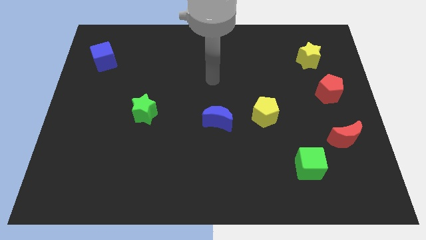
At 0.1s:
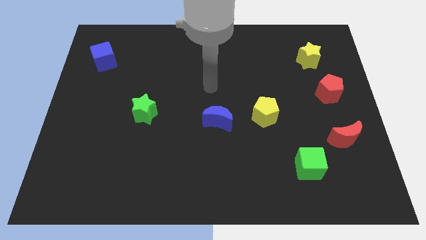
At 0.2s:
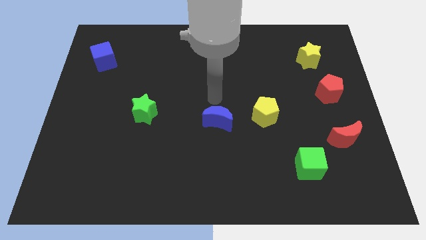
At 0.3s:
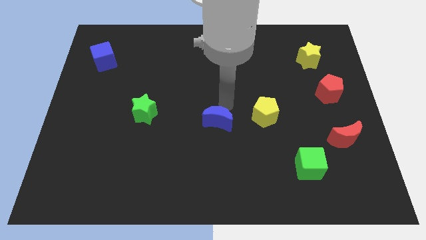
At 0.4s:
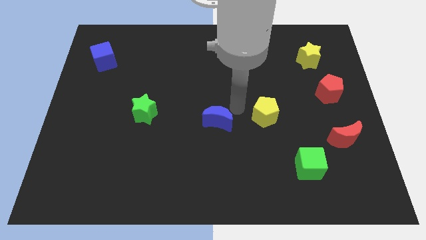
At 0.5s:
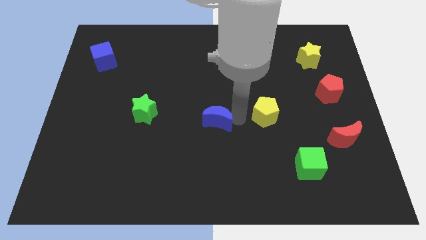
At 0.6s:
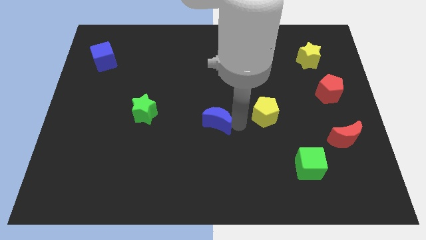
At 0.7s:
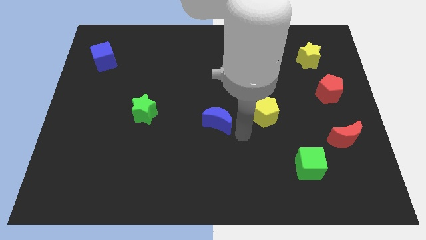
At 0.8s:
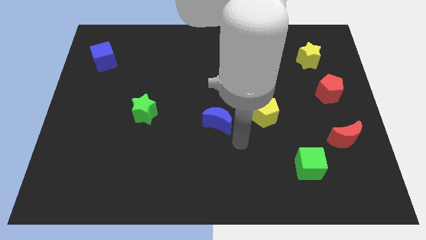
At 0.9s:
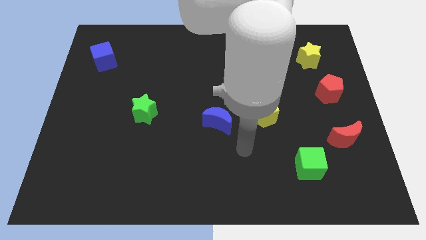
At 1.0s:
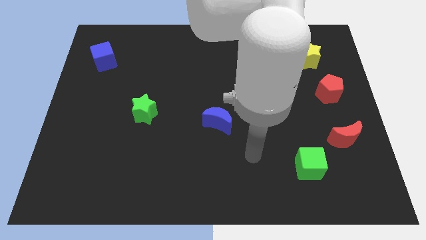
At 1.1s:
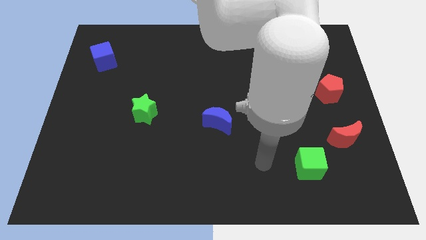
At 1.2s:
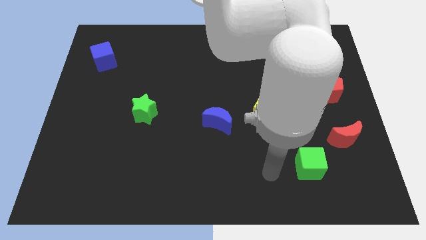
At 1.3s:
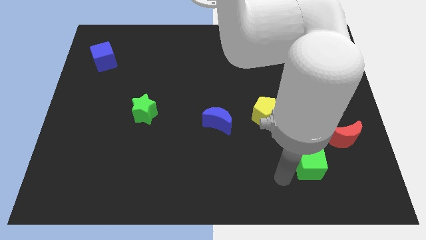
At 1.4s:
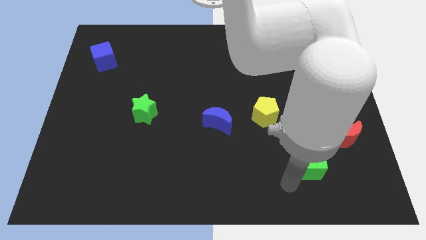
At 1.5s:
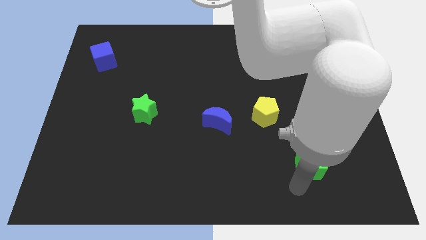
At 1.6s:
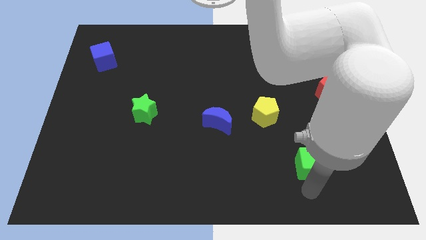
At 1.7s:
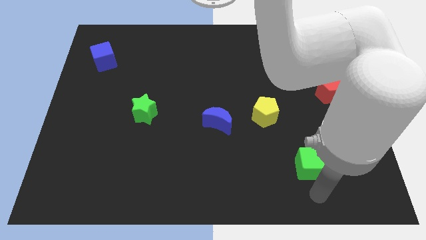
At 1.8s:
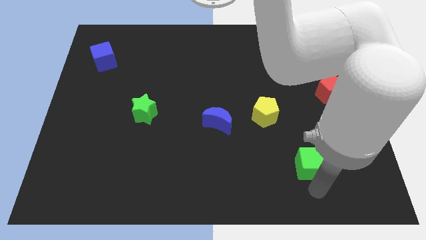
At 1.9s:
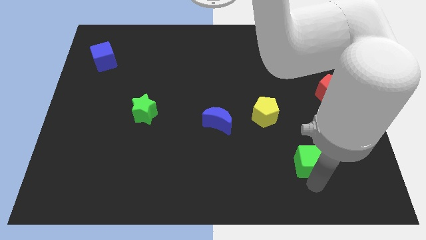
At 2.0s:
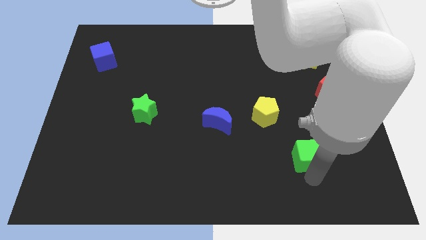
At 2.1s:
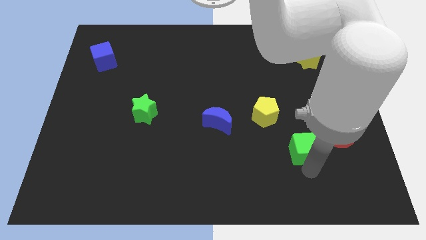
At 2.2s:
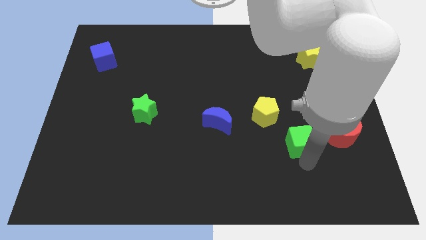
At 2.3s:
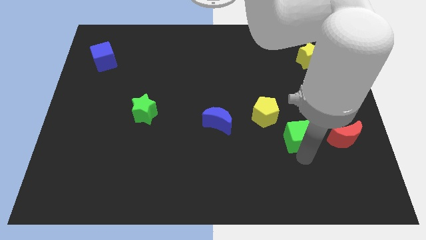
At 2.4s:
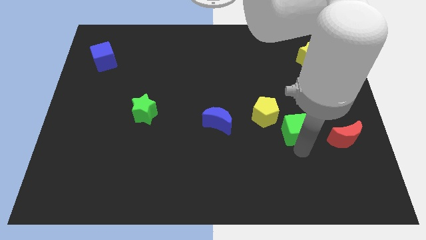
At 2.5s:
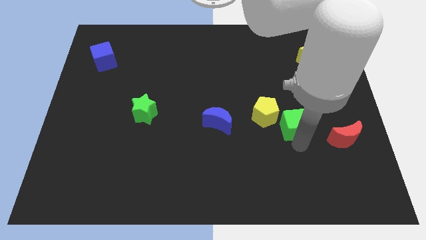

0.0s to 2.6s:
move the green cube up and left somewhat

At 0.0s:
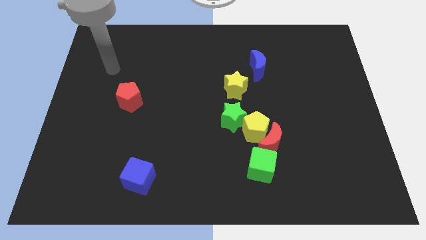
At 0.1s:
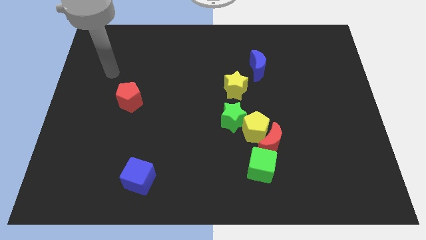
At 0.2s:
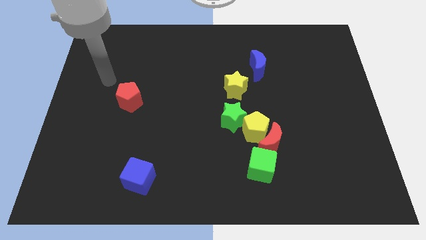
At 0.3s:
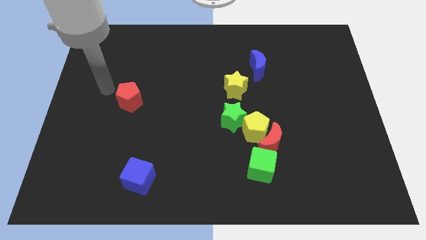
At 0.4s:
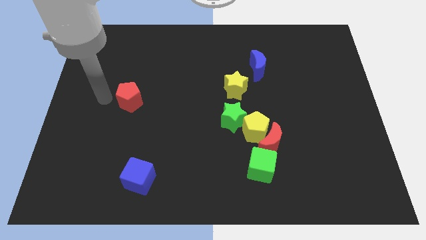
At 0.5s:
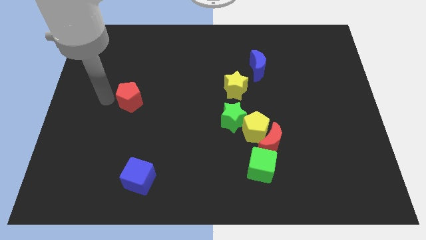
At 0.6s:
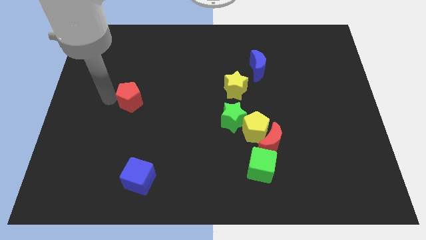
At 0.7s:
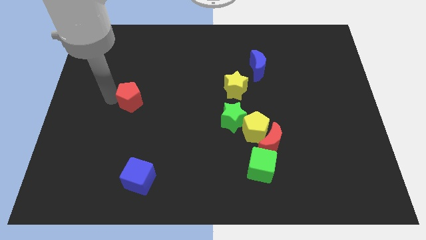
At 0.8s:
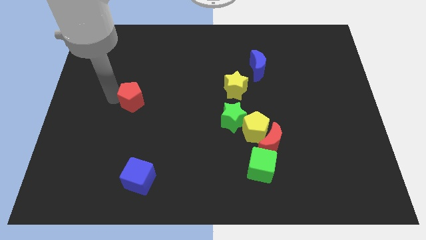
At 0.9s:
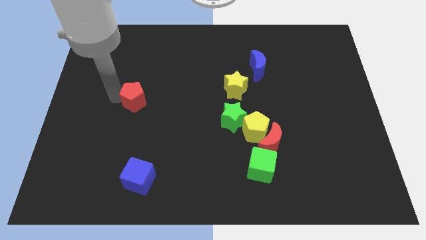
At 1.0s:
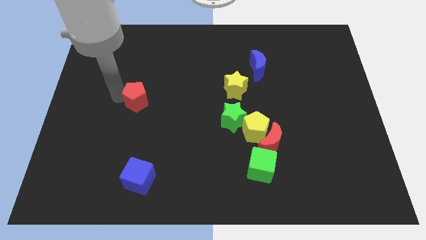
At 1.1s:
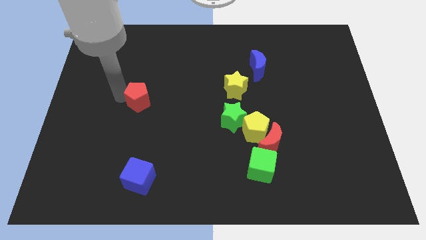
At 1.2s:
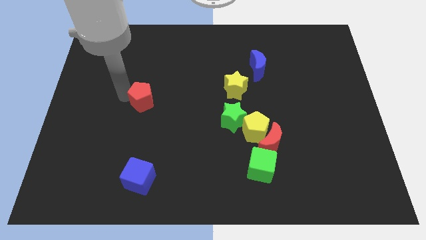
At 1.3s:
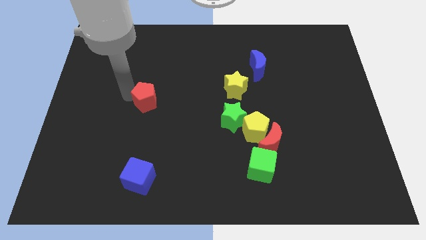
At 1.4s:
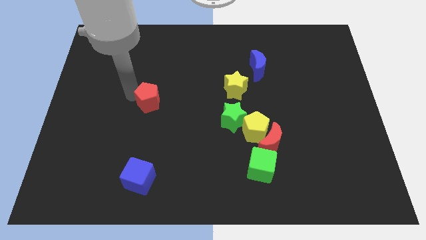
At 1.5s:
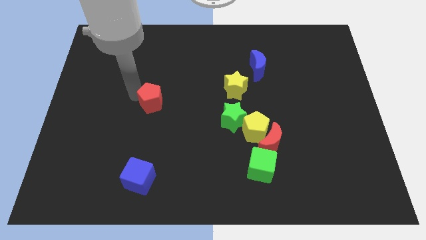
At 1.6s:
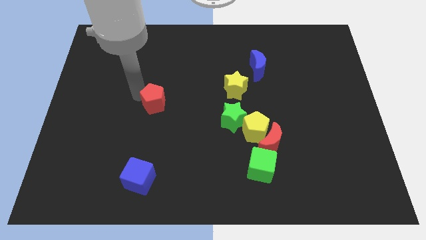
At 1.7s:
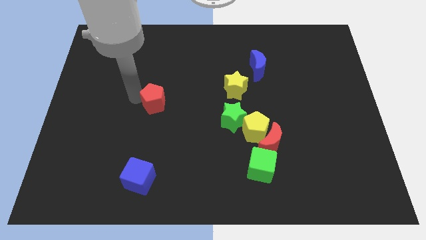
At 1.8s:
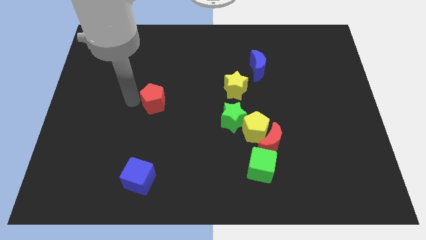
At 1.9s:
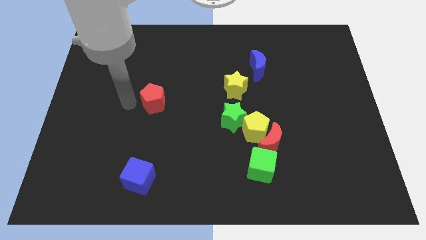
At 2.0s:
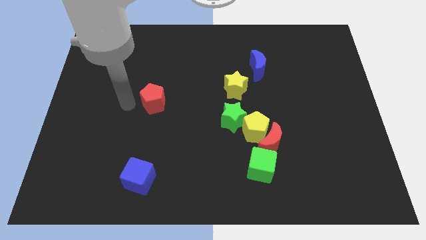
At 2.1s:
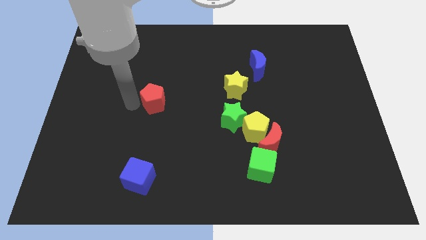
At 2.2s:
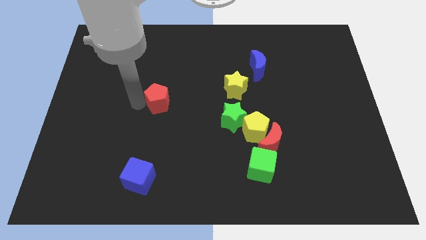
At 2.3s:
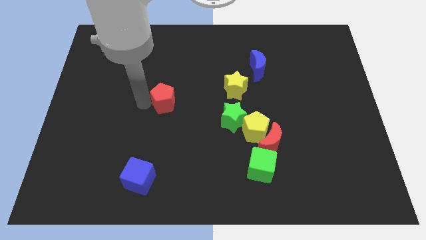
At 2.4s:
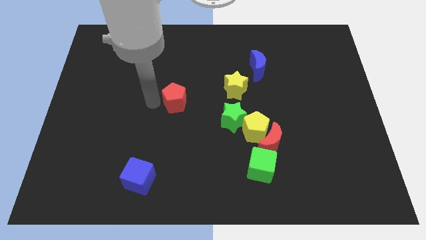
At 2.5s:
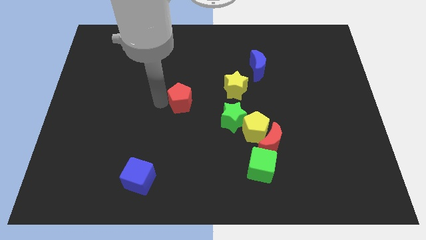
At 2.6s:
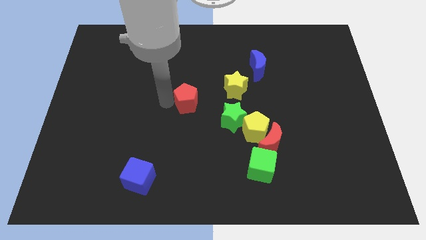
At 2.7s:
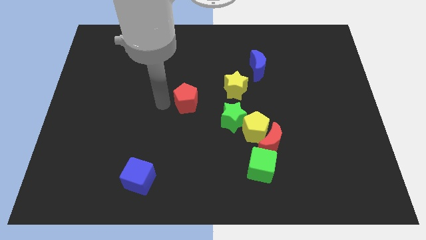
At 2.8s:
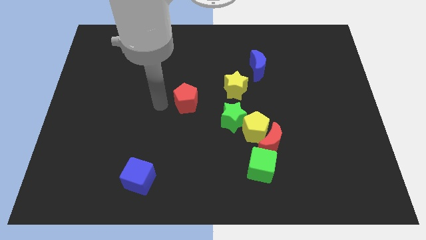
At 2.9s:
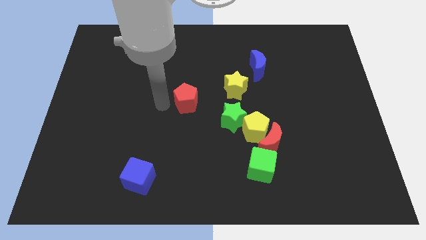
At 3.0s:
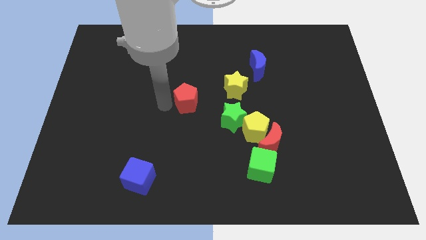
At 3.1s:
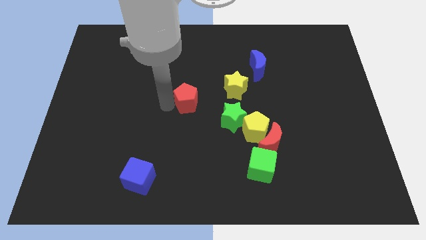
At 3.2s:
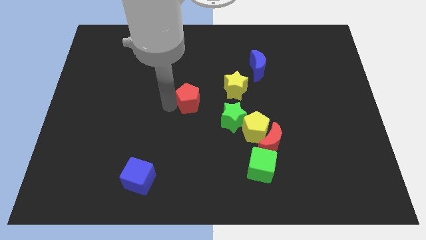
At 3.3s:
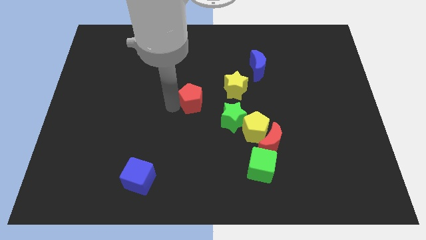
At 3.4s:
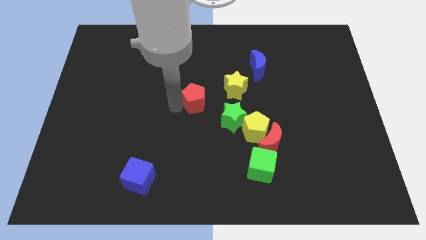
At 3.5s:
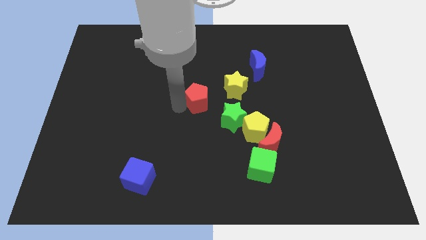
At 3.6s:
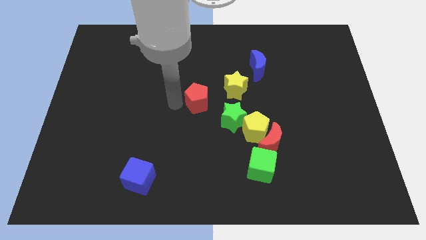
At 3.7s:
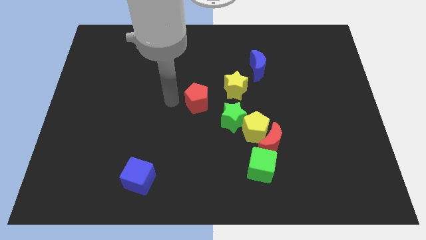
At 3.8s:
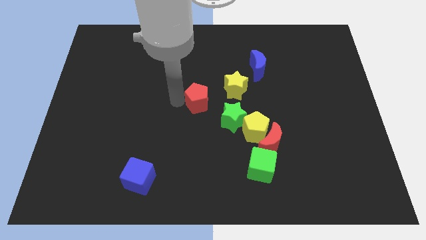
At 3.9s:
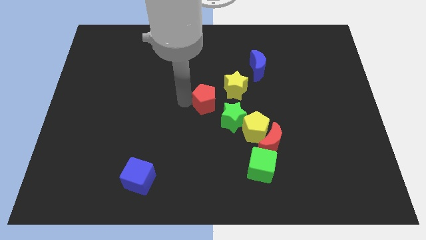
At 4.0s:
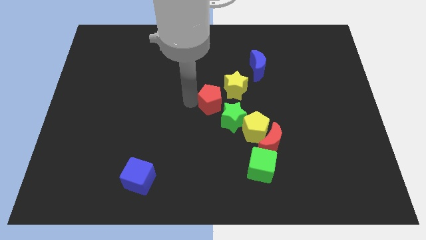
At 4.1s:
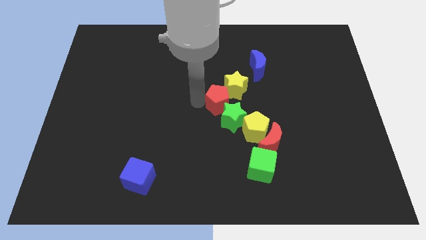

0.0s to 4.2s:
move the red pentagon to the right

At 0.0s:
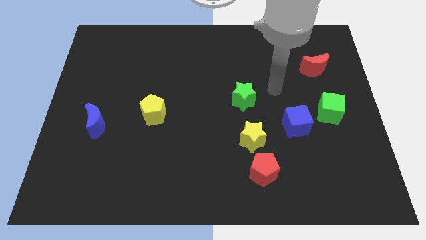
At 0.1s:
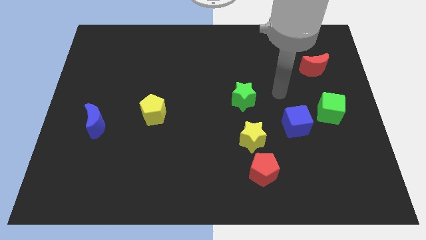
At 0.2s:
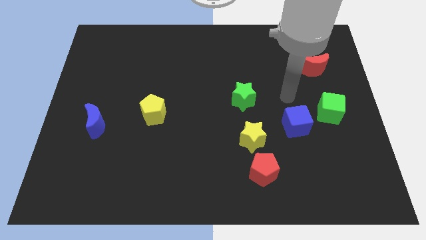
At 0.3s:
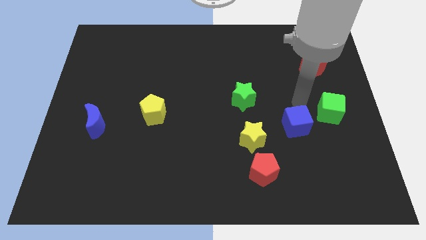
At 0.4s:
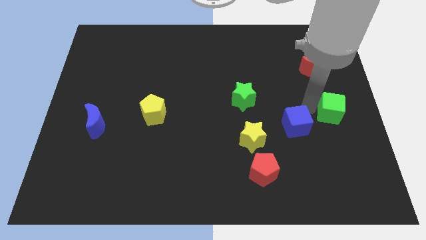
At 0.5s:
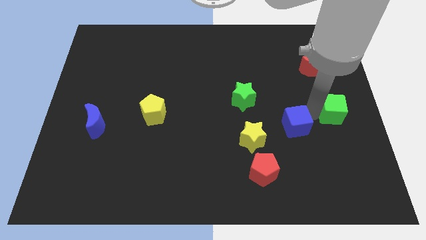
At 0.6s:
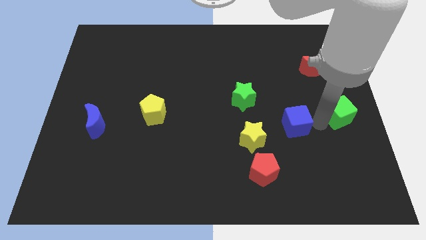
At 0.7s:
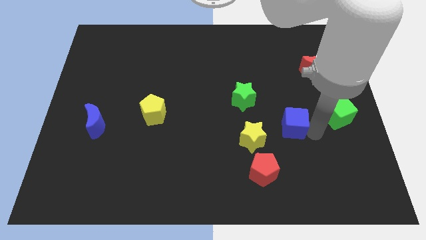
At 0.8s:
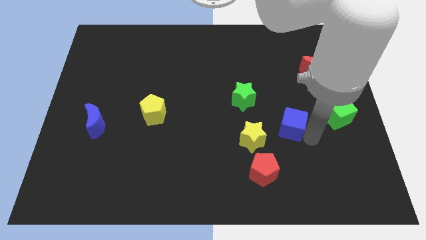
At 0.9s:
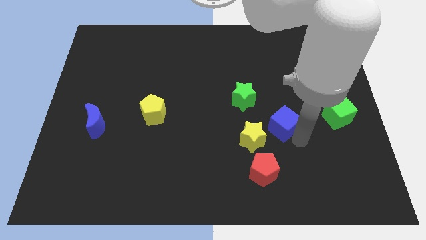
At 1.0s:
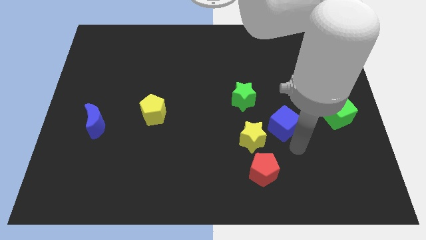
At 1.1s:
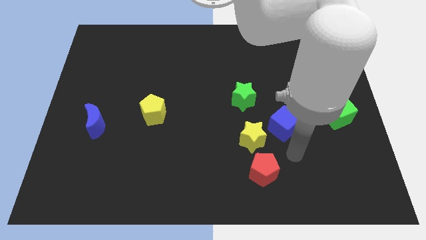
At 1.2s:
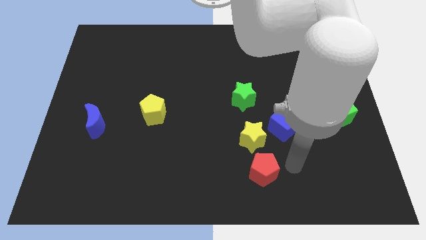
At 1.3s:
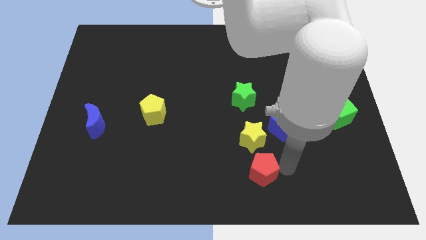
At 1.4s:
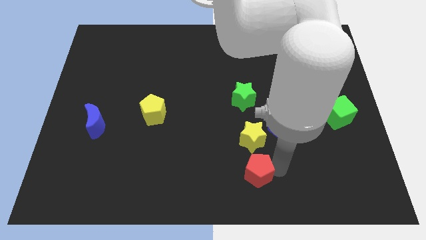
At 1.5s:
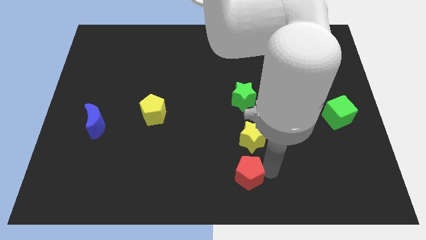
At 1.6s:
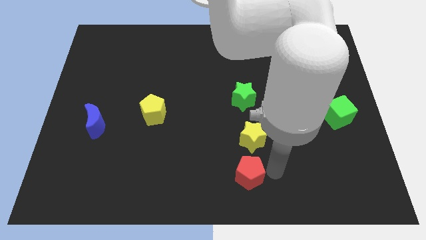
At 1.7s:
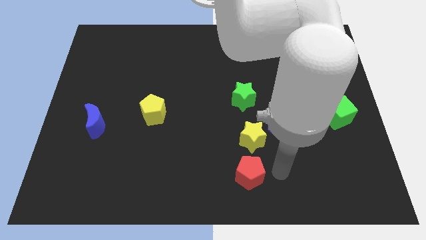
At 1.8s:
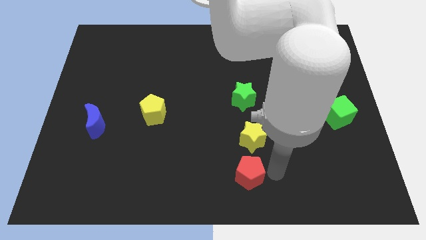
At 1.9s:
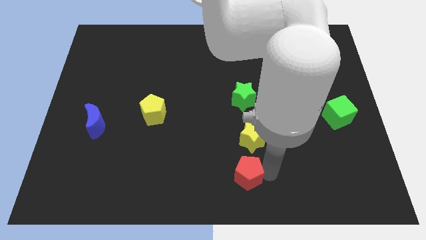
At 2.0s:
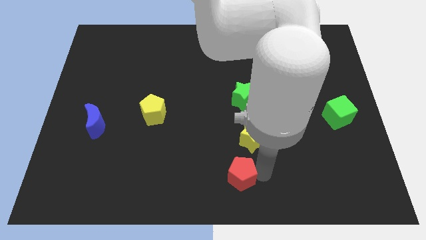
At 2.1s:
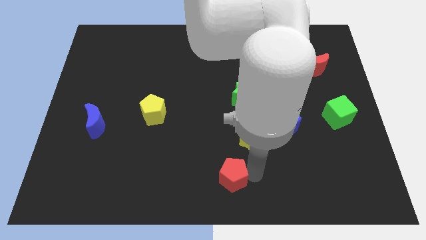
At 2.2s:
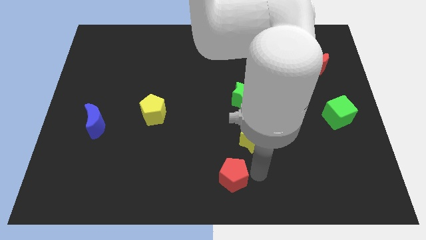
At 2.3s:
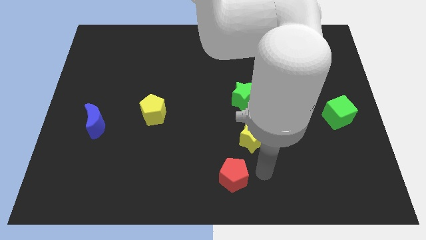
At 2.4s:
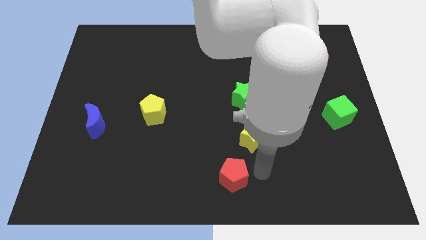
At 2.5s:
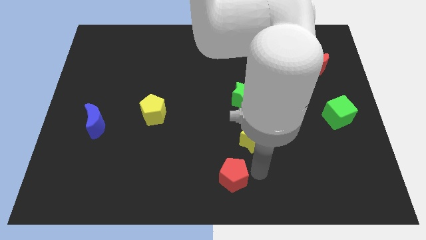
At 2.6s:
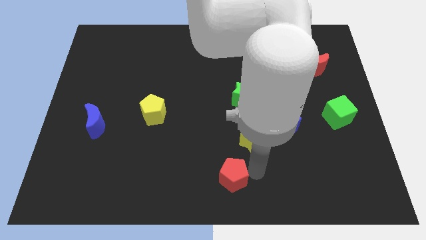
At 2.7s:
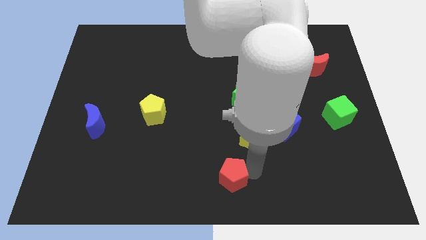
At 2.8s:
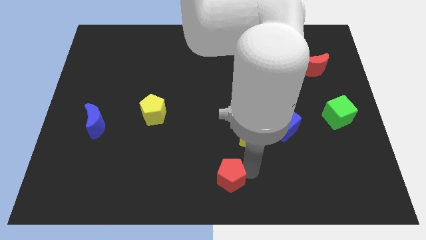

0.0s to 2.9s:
slightly move the red pentagon left
